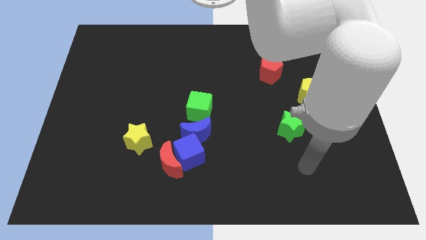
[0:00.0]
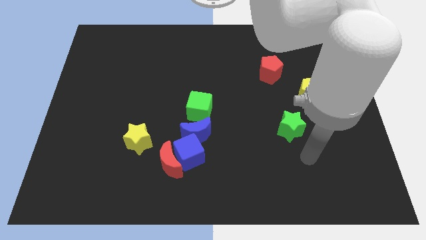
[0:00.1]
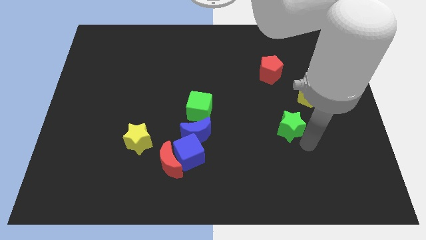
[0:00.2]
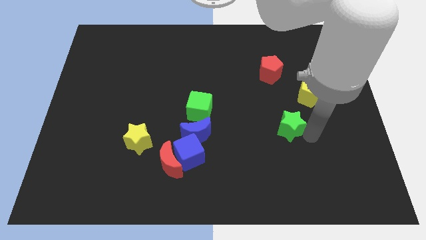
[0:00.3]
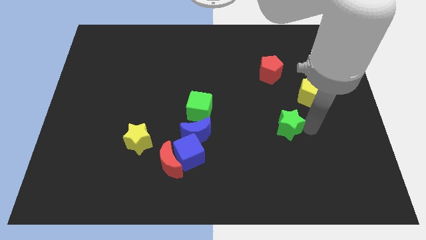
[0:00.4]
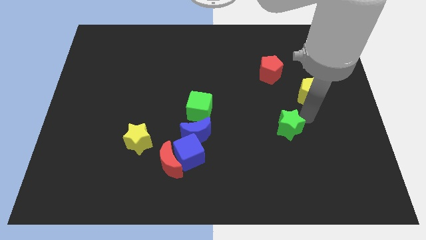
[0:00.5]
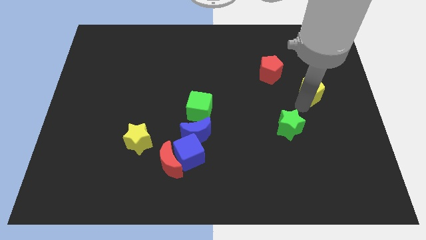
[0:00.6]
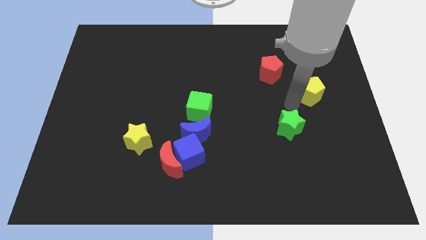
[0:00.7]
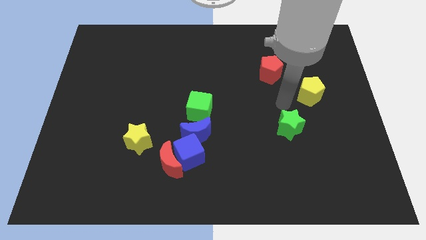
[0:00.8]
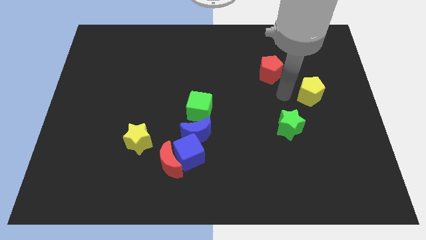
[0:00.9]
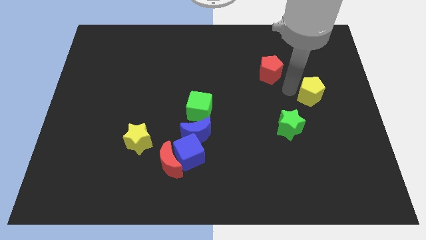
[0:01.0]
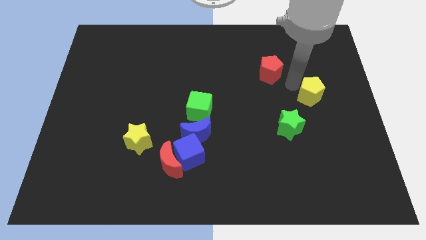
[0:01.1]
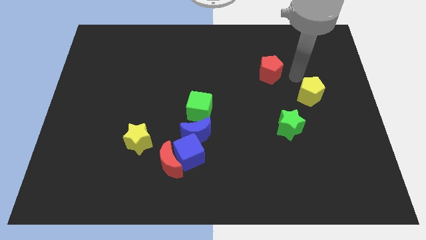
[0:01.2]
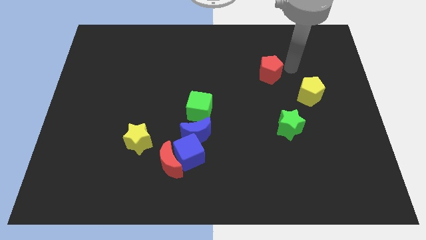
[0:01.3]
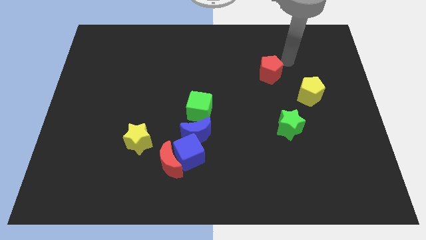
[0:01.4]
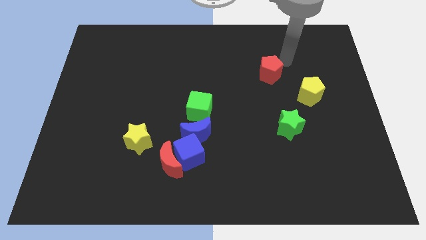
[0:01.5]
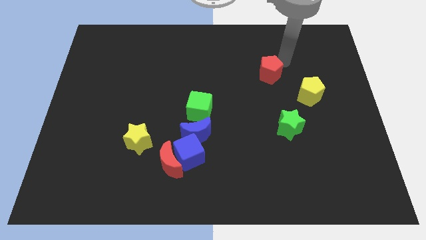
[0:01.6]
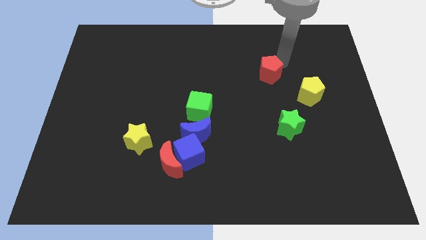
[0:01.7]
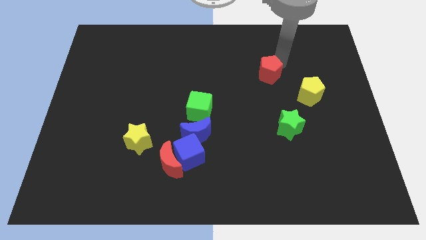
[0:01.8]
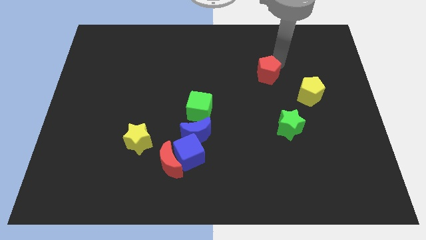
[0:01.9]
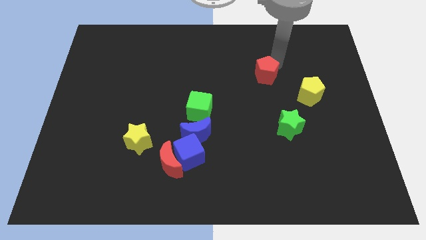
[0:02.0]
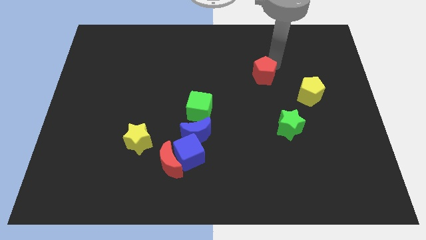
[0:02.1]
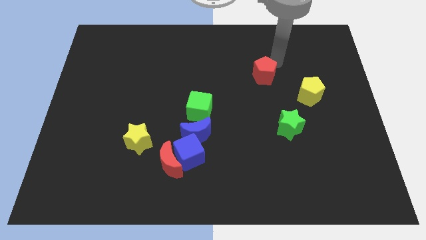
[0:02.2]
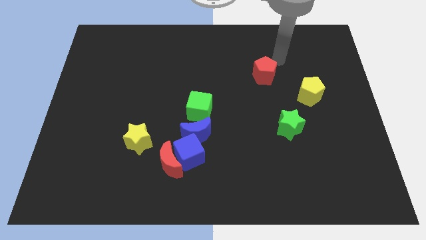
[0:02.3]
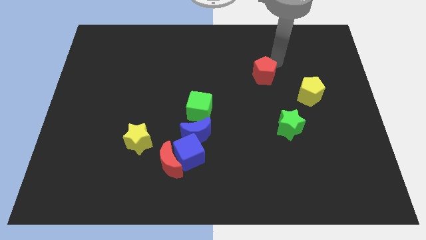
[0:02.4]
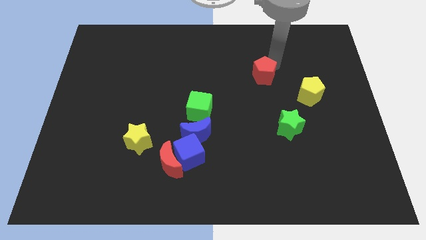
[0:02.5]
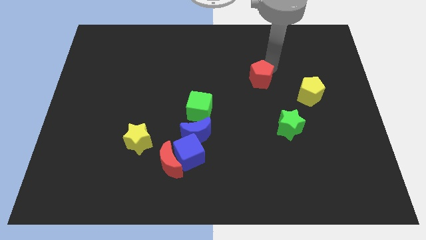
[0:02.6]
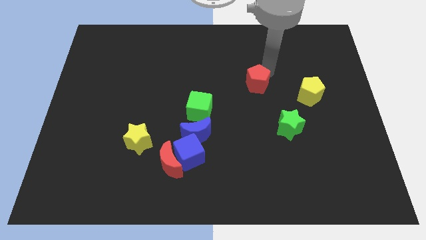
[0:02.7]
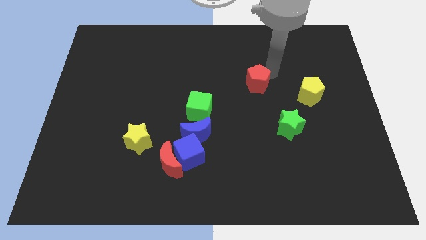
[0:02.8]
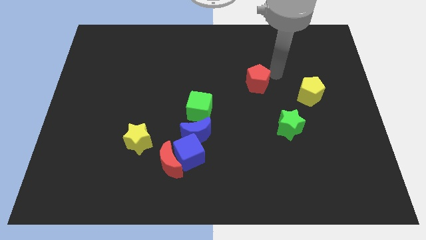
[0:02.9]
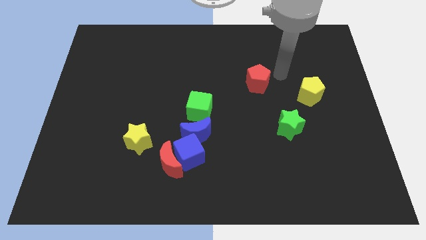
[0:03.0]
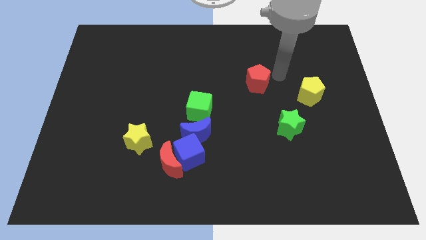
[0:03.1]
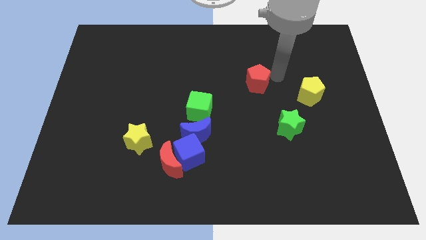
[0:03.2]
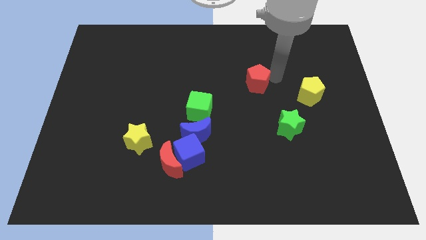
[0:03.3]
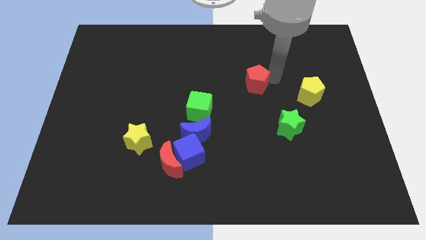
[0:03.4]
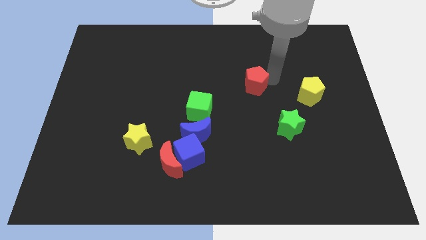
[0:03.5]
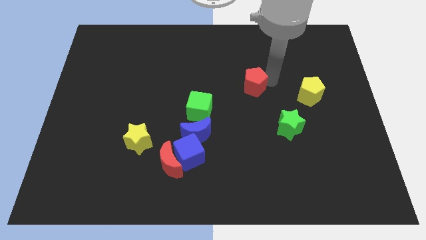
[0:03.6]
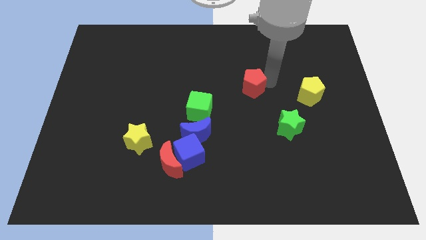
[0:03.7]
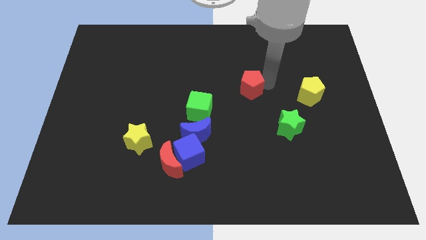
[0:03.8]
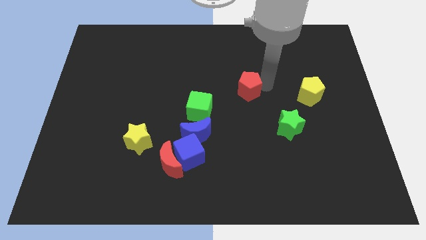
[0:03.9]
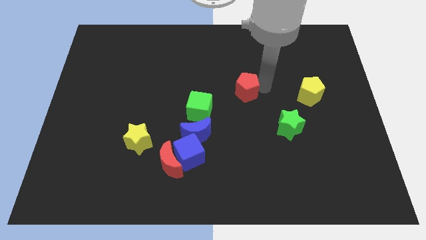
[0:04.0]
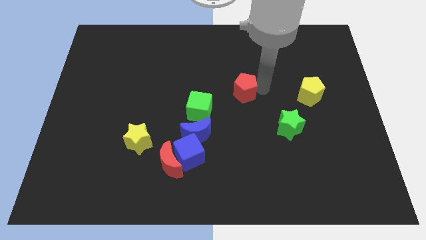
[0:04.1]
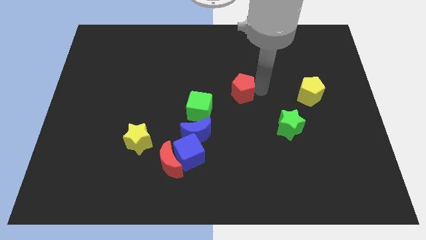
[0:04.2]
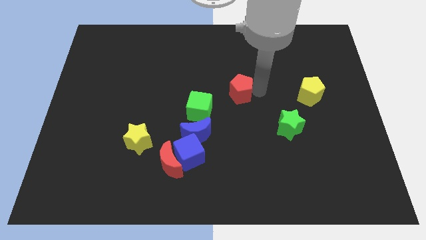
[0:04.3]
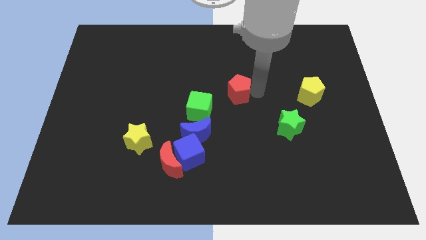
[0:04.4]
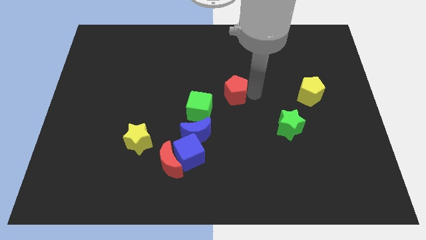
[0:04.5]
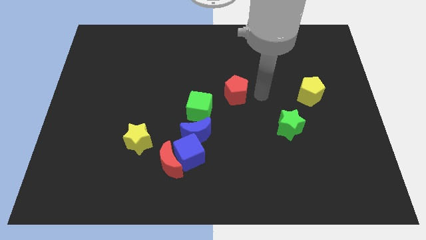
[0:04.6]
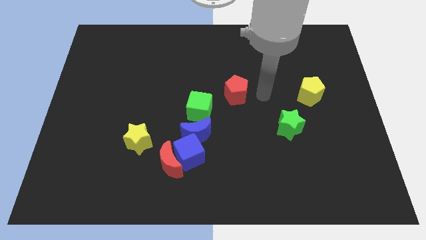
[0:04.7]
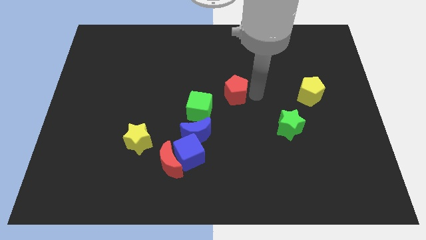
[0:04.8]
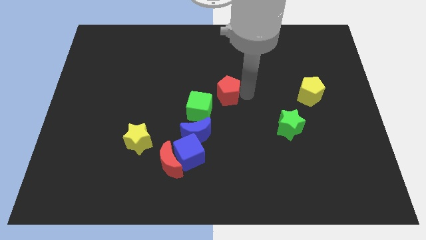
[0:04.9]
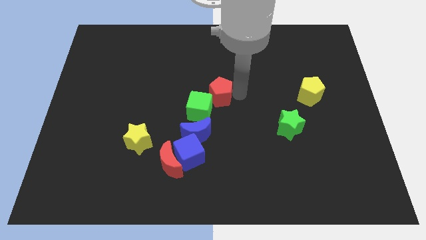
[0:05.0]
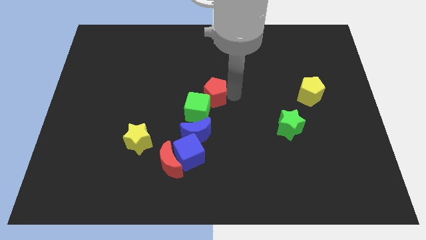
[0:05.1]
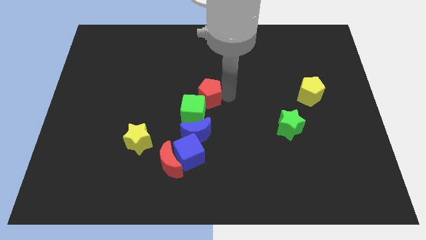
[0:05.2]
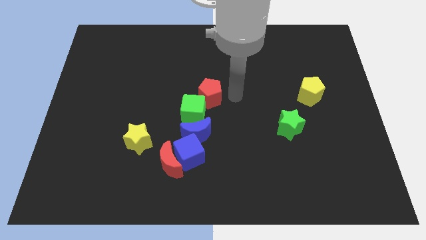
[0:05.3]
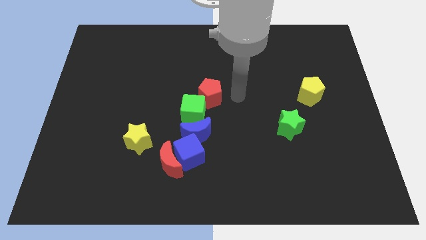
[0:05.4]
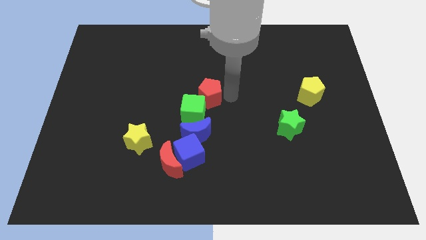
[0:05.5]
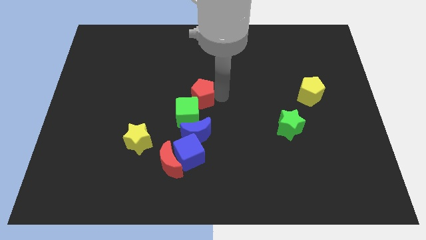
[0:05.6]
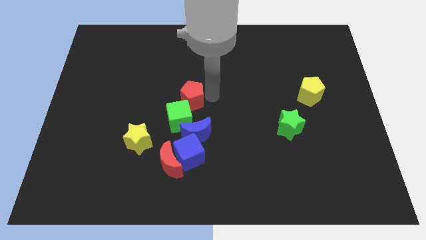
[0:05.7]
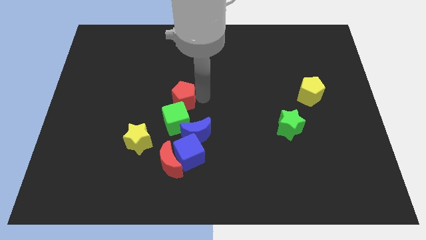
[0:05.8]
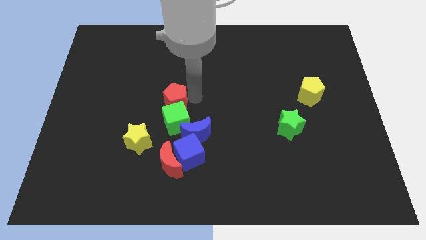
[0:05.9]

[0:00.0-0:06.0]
move the red pentagon to the top left side of the green cube

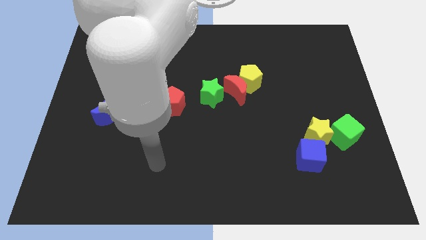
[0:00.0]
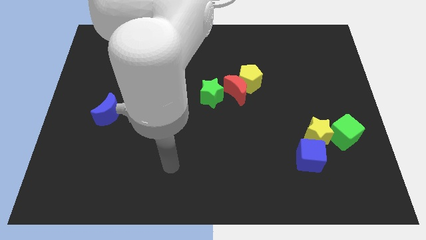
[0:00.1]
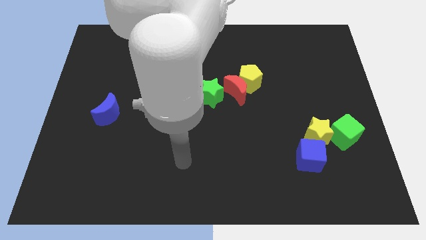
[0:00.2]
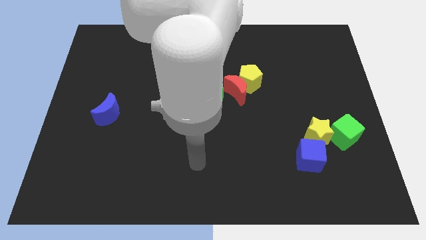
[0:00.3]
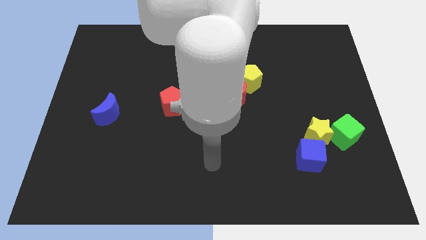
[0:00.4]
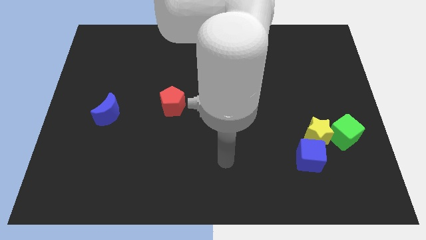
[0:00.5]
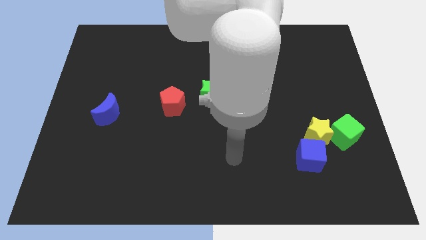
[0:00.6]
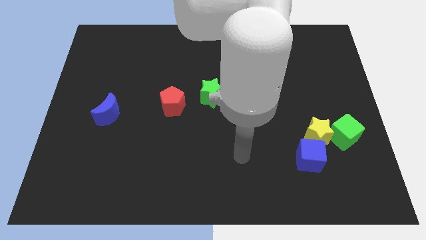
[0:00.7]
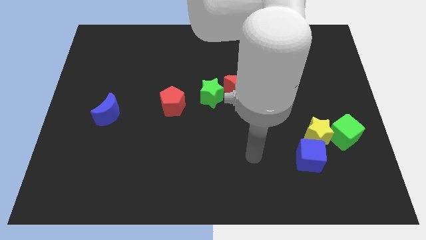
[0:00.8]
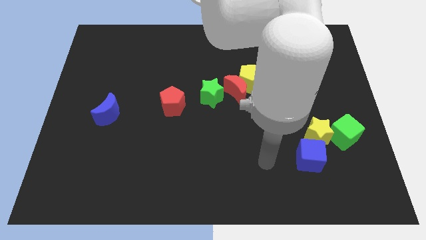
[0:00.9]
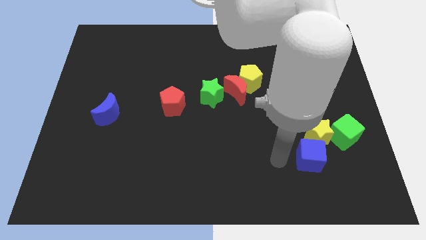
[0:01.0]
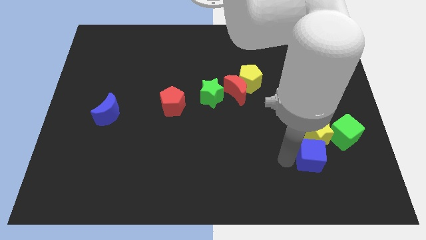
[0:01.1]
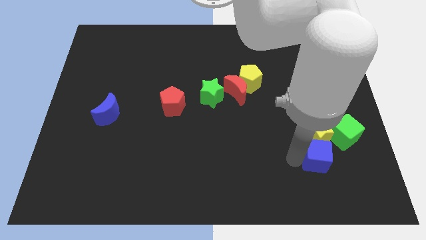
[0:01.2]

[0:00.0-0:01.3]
slide the blue cube diagonally down and to the right of the yellow star
